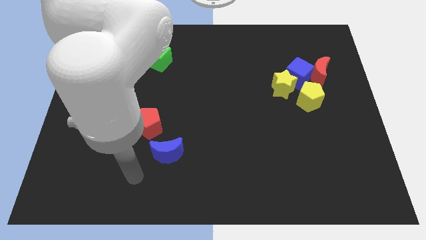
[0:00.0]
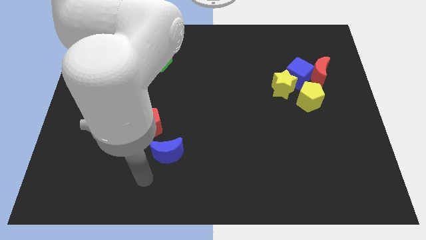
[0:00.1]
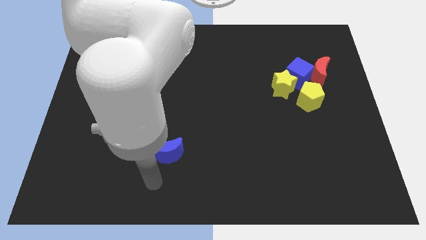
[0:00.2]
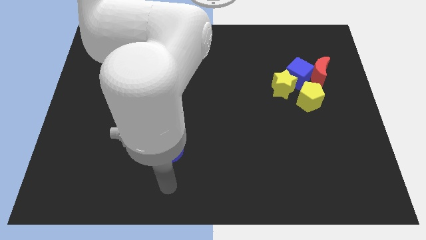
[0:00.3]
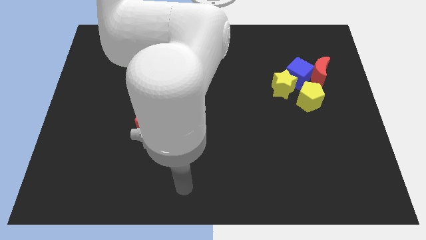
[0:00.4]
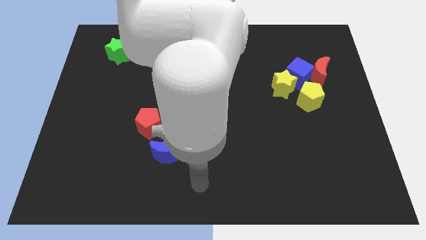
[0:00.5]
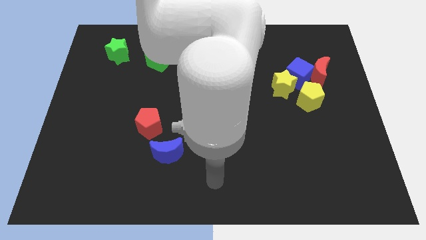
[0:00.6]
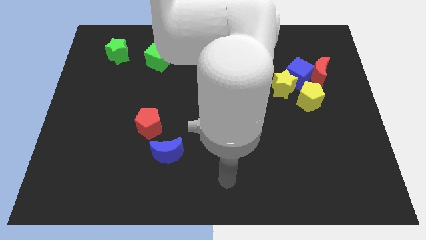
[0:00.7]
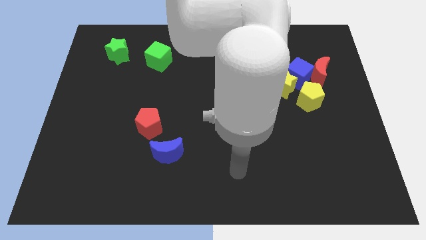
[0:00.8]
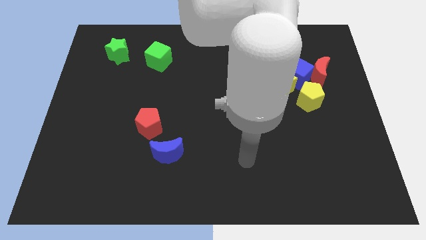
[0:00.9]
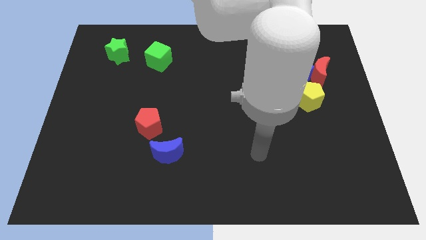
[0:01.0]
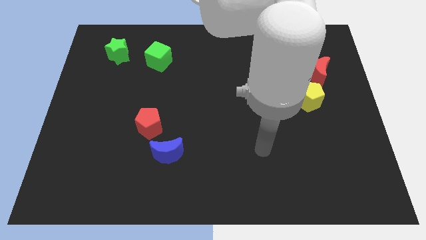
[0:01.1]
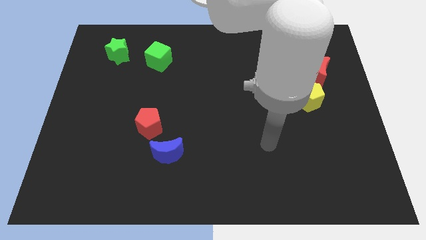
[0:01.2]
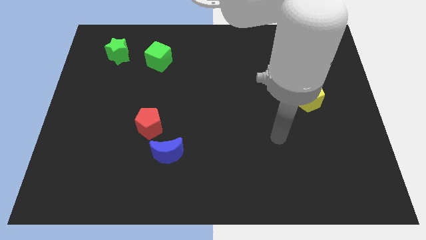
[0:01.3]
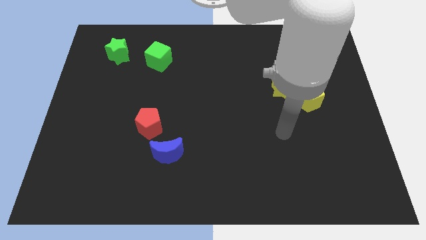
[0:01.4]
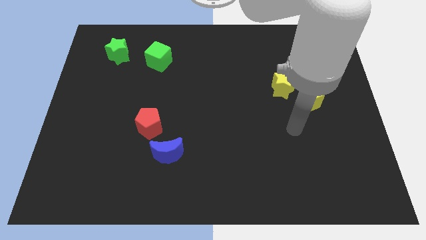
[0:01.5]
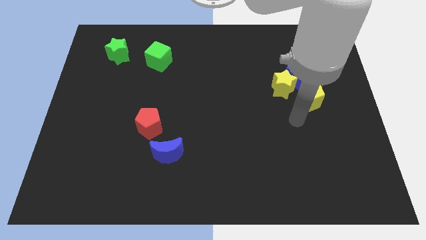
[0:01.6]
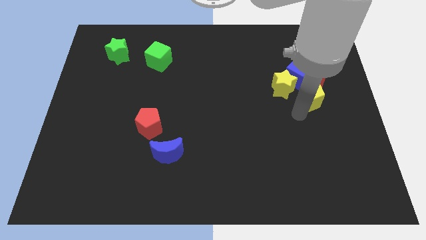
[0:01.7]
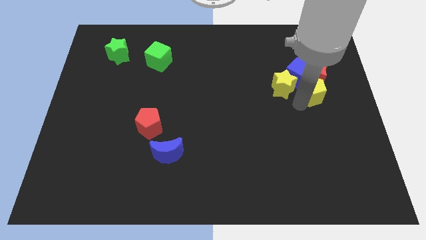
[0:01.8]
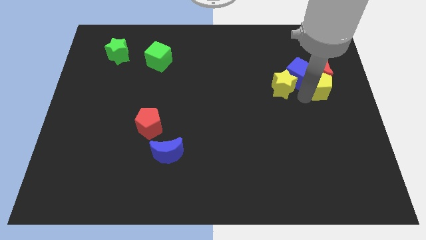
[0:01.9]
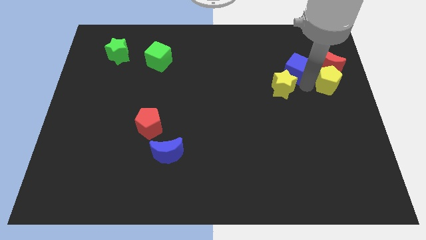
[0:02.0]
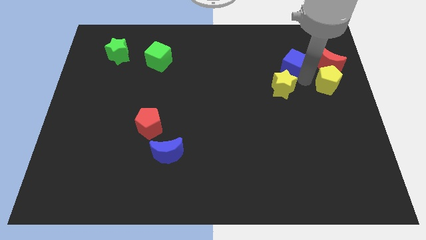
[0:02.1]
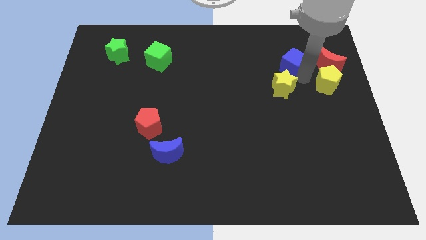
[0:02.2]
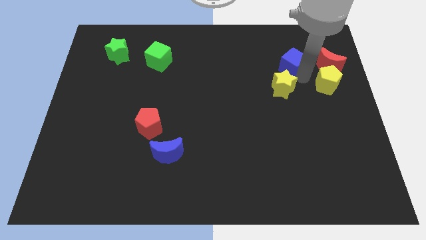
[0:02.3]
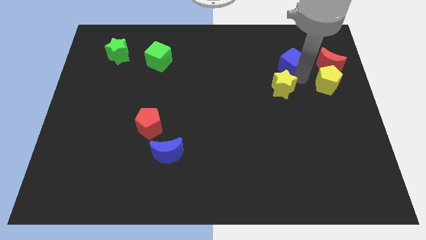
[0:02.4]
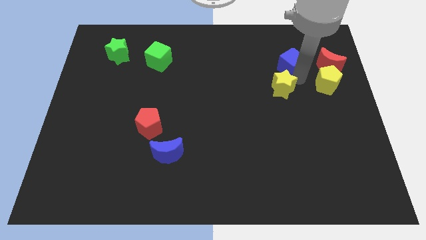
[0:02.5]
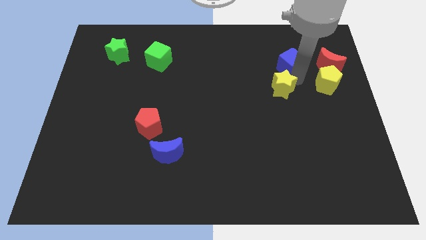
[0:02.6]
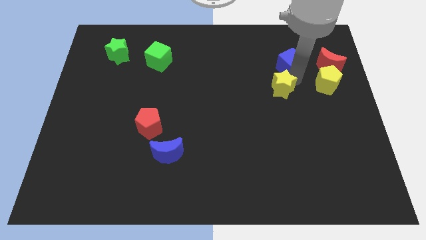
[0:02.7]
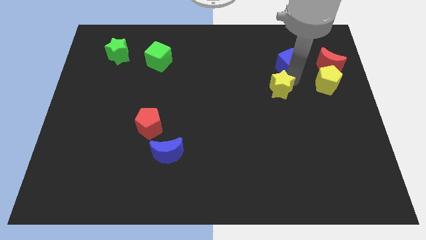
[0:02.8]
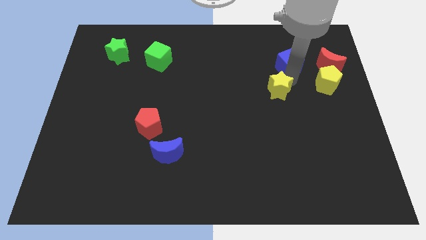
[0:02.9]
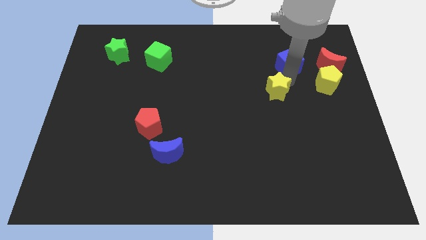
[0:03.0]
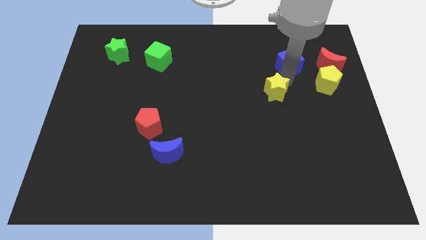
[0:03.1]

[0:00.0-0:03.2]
pull the yellow star apart from the blue cube and yellow pentagon

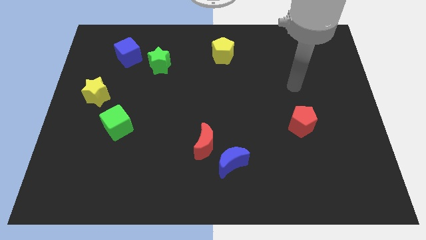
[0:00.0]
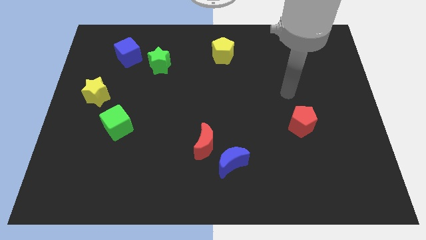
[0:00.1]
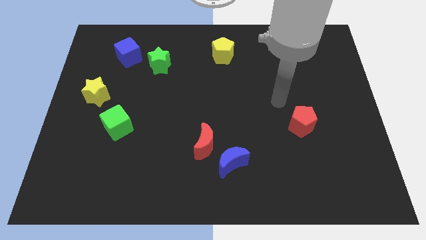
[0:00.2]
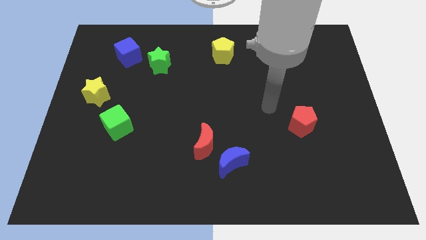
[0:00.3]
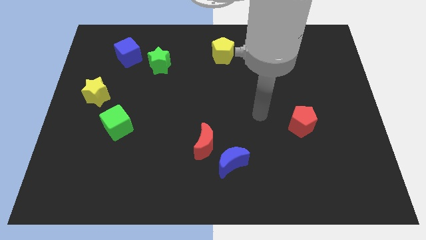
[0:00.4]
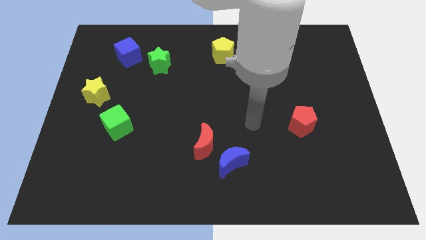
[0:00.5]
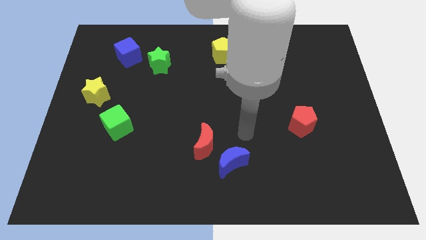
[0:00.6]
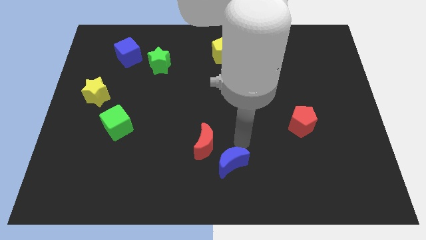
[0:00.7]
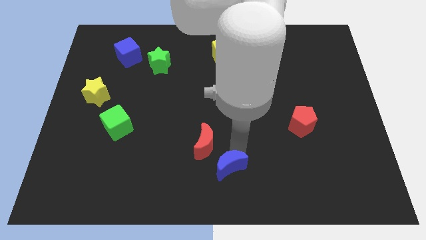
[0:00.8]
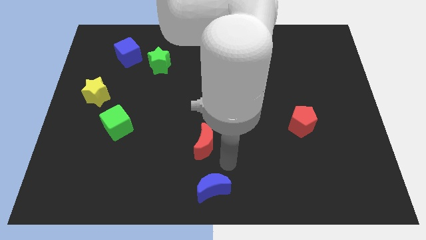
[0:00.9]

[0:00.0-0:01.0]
pull the red moon apart from the blue moon

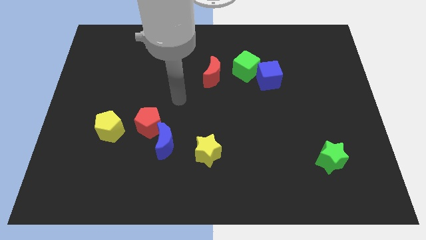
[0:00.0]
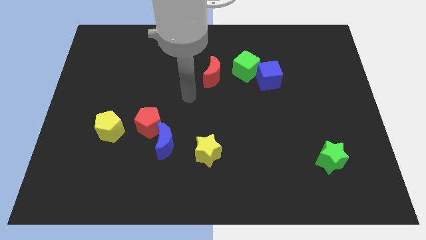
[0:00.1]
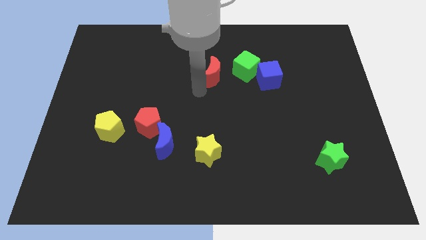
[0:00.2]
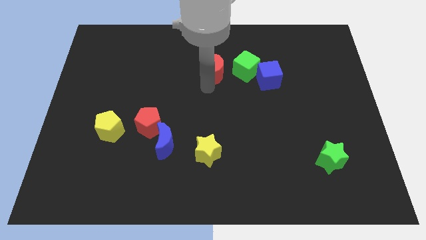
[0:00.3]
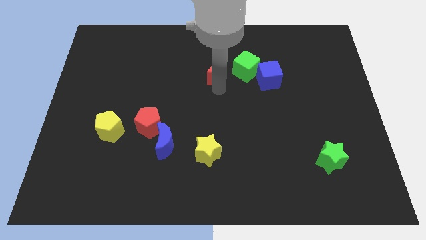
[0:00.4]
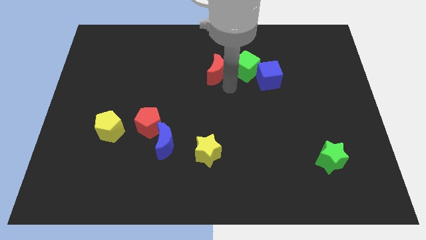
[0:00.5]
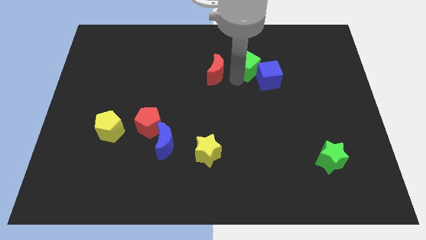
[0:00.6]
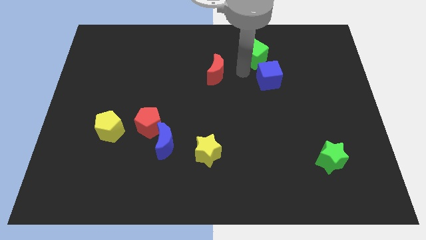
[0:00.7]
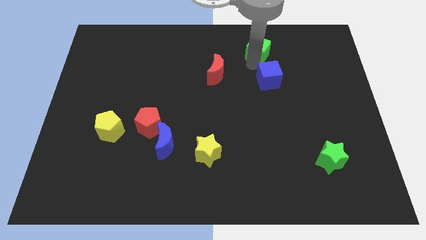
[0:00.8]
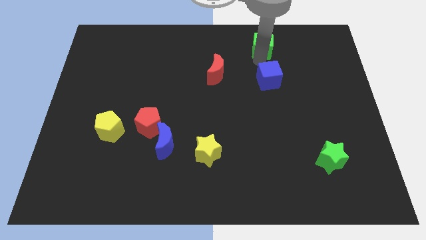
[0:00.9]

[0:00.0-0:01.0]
separate the blue cube from the green cube

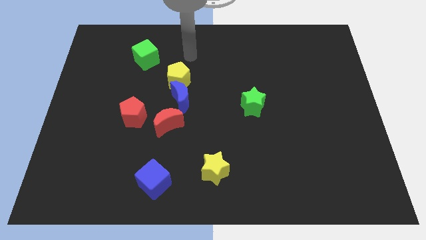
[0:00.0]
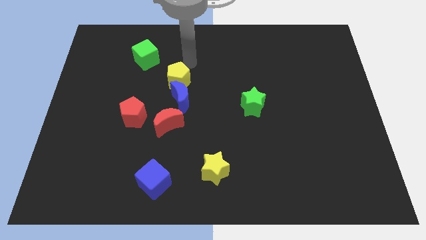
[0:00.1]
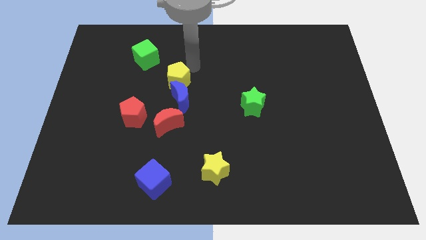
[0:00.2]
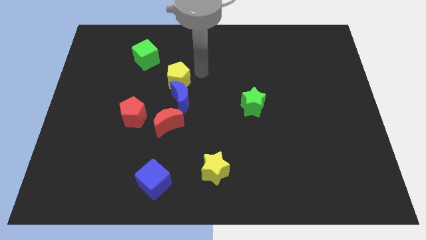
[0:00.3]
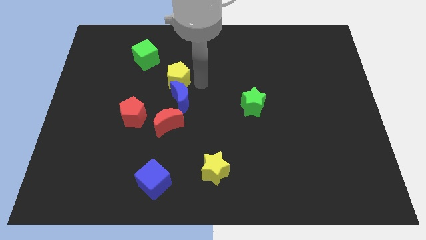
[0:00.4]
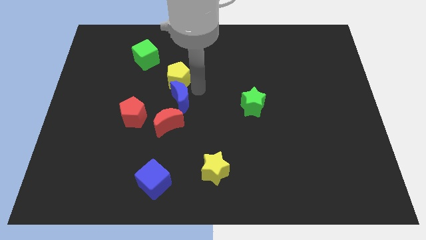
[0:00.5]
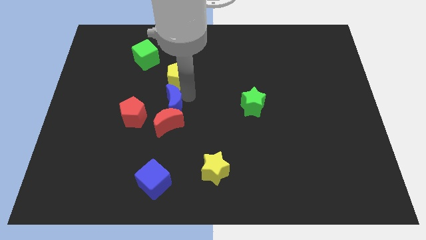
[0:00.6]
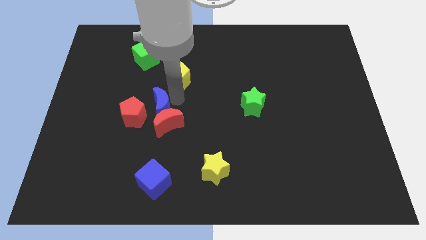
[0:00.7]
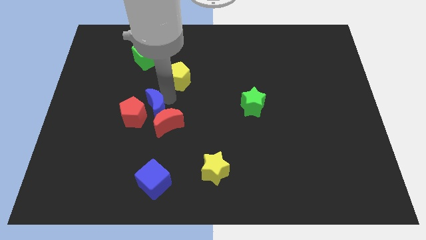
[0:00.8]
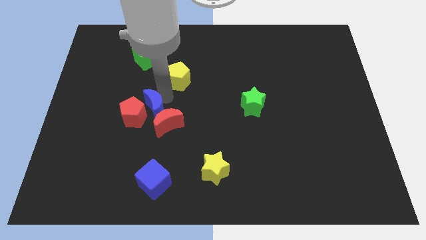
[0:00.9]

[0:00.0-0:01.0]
move the yellow pentagon away from the blue moon

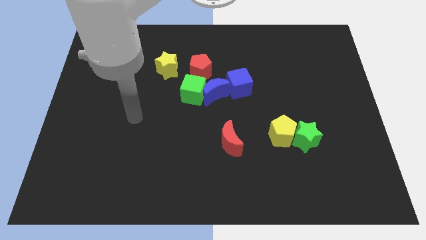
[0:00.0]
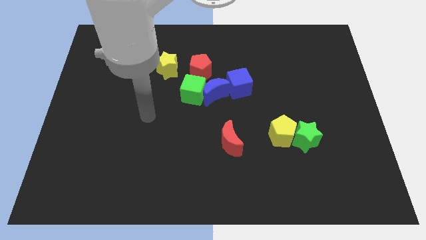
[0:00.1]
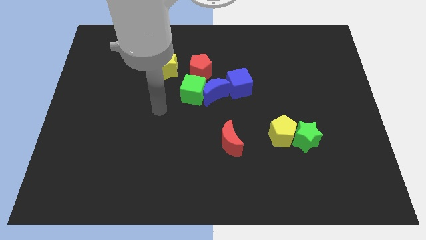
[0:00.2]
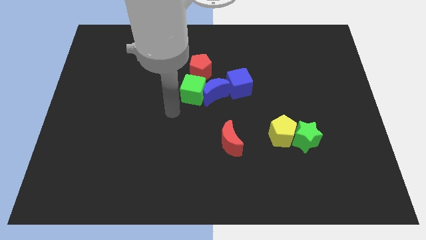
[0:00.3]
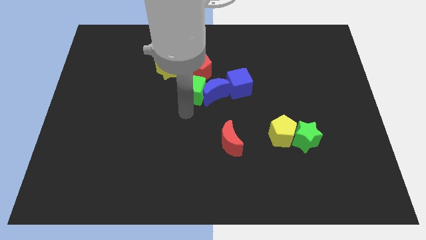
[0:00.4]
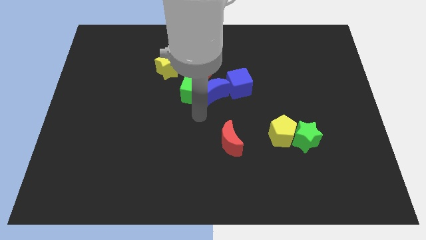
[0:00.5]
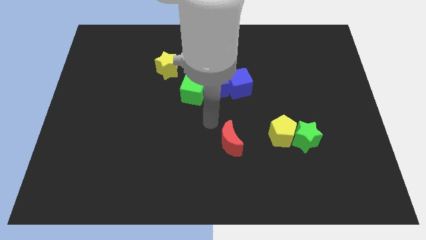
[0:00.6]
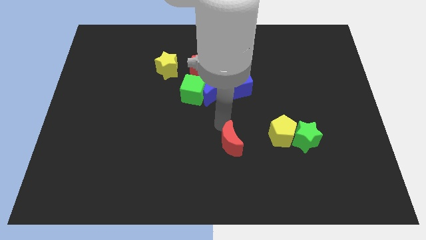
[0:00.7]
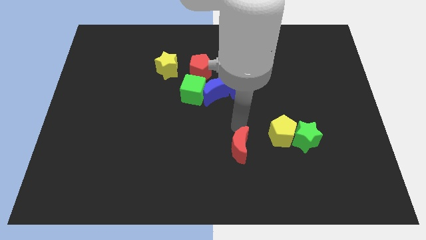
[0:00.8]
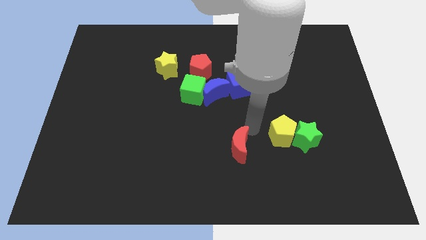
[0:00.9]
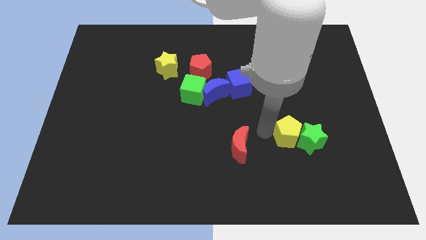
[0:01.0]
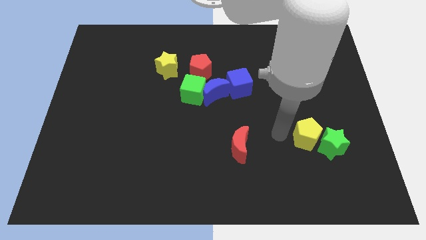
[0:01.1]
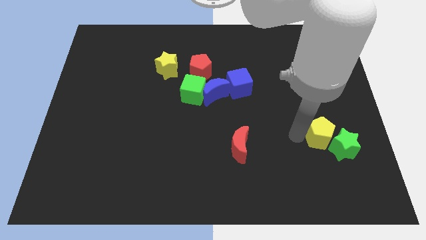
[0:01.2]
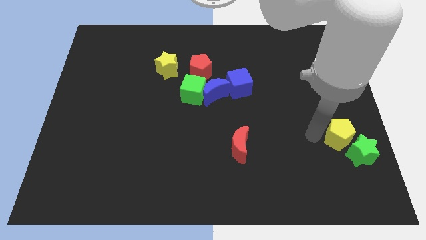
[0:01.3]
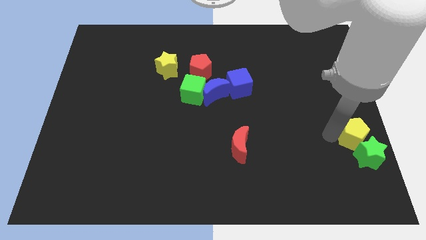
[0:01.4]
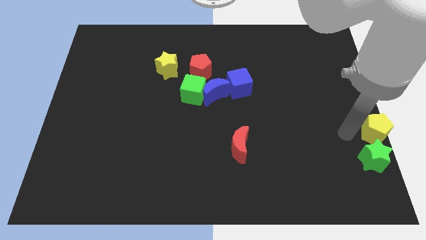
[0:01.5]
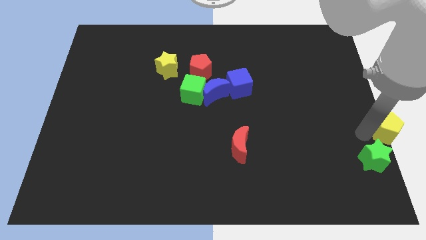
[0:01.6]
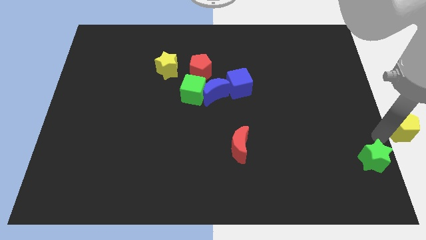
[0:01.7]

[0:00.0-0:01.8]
move the green star away from the yellow pentagon

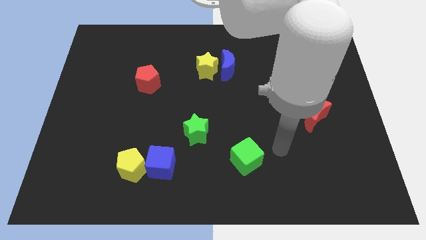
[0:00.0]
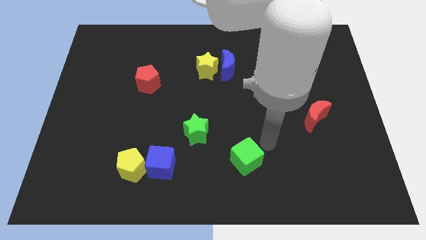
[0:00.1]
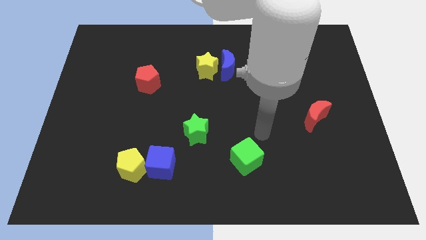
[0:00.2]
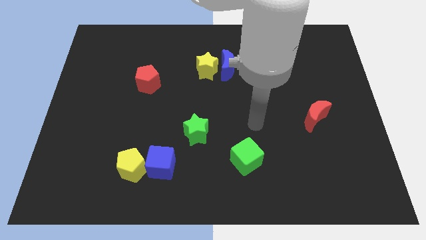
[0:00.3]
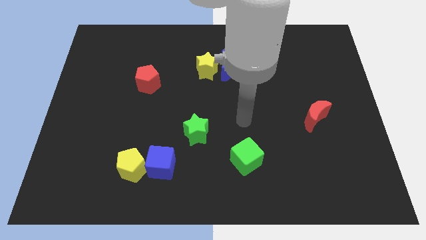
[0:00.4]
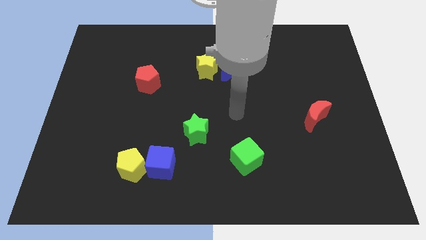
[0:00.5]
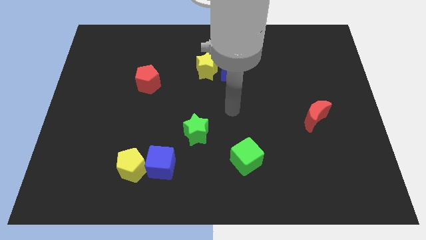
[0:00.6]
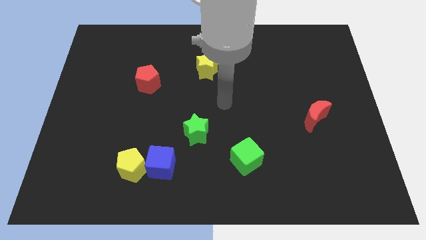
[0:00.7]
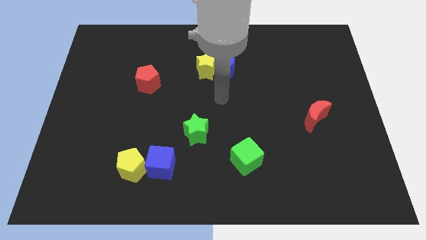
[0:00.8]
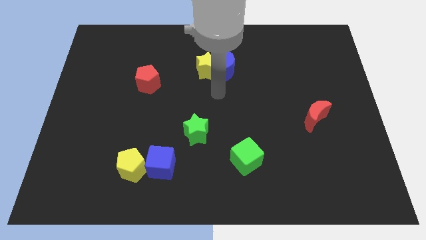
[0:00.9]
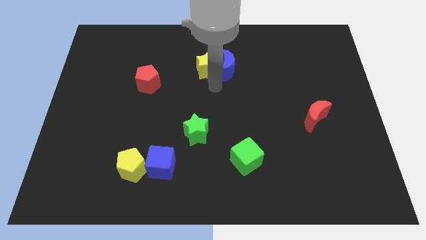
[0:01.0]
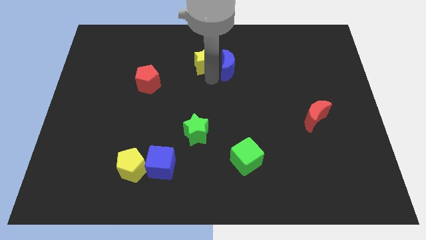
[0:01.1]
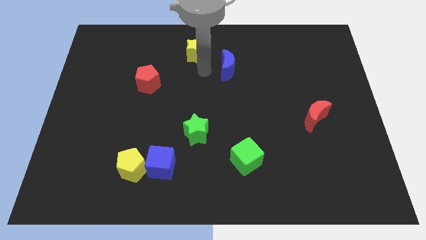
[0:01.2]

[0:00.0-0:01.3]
pull the blue moon apart from the yellow star
